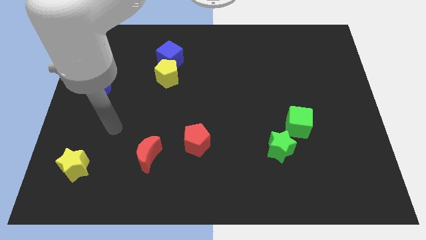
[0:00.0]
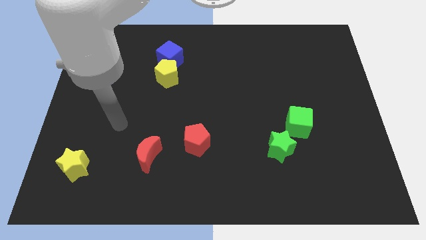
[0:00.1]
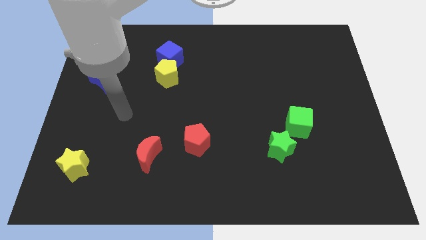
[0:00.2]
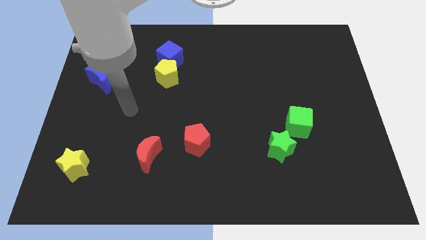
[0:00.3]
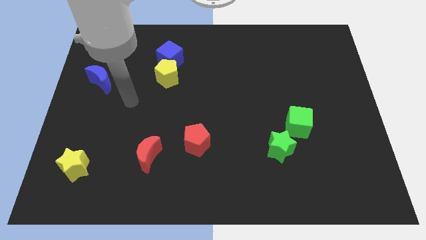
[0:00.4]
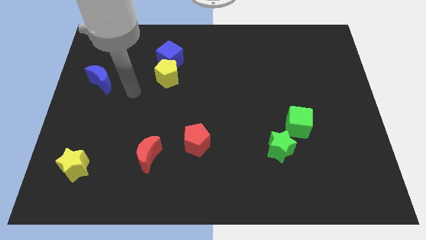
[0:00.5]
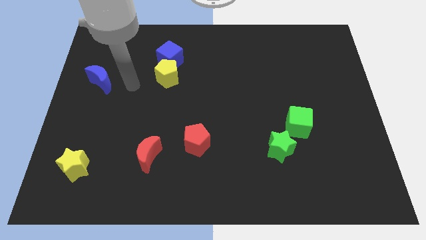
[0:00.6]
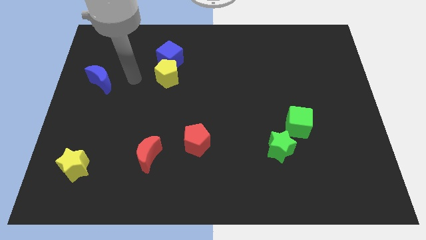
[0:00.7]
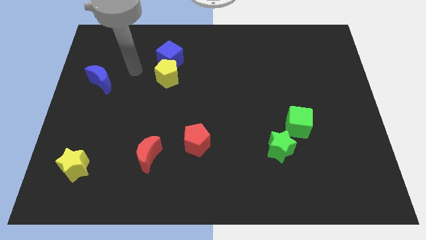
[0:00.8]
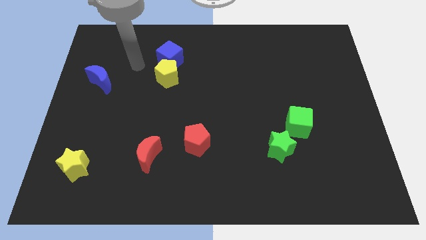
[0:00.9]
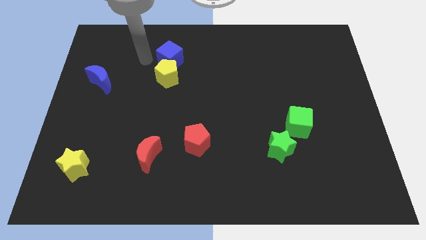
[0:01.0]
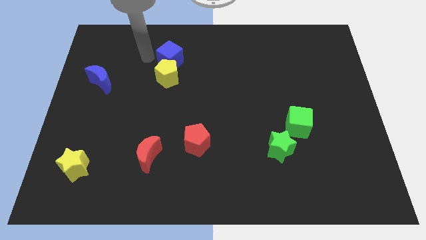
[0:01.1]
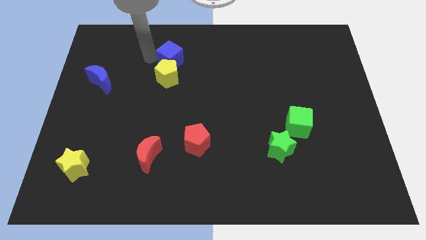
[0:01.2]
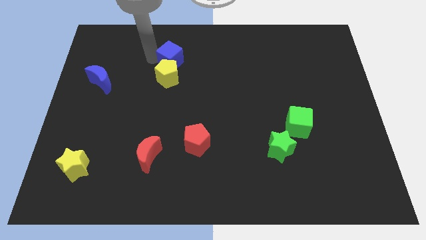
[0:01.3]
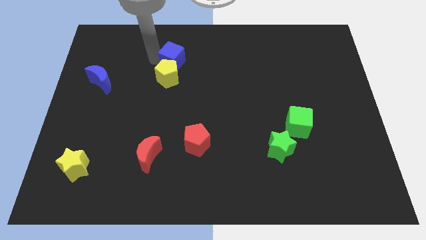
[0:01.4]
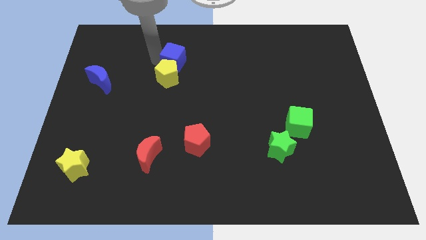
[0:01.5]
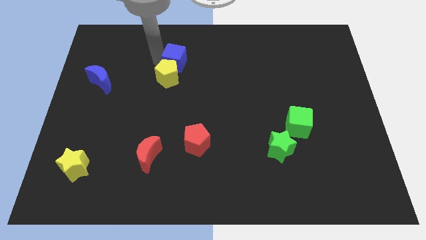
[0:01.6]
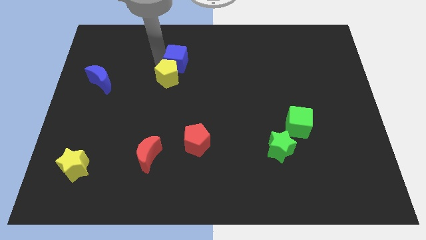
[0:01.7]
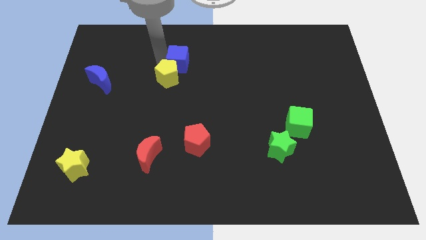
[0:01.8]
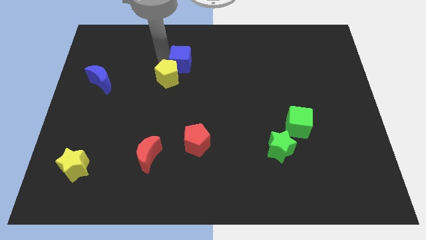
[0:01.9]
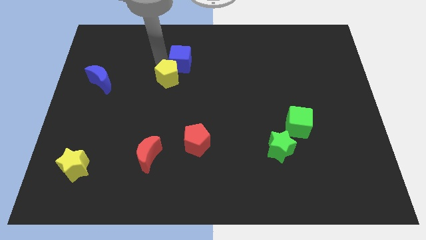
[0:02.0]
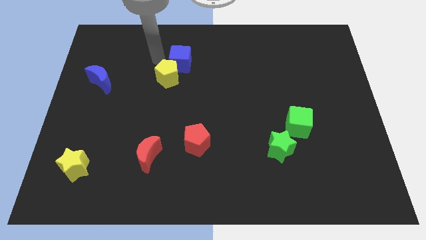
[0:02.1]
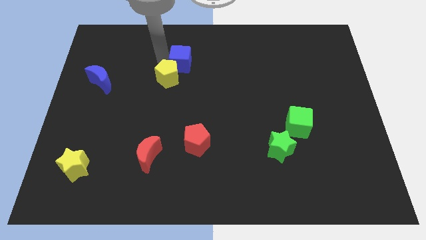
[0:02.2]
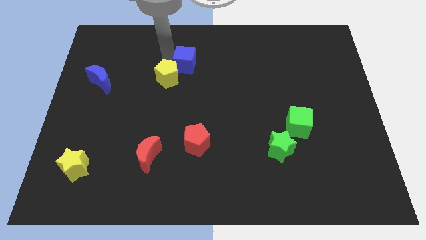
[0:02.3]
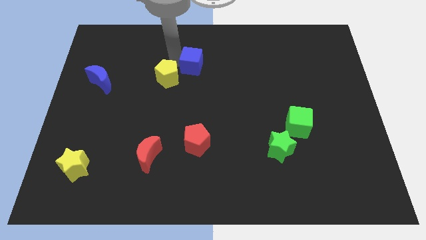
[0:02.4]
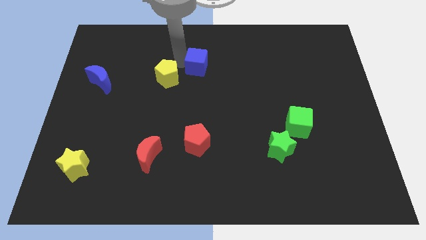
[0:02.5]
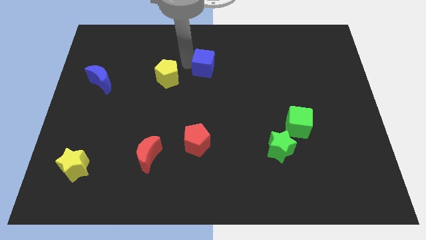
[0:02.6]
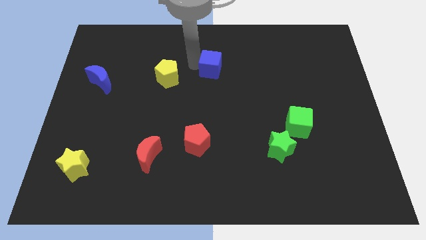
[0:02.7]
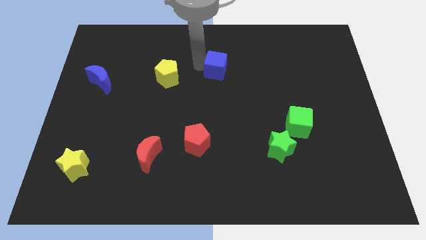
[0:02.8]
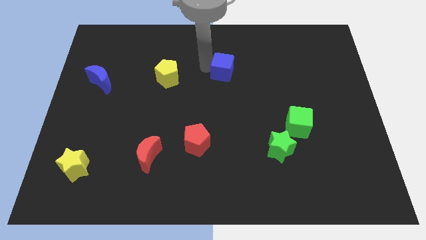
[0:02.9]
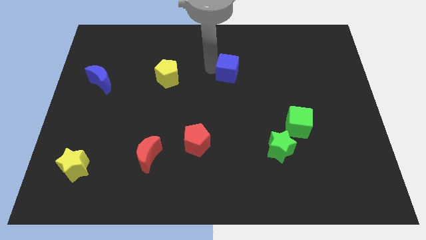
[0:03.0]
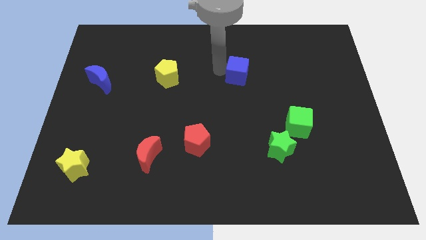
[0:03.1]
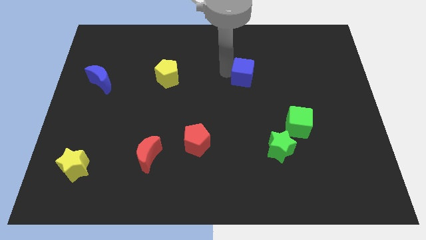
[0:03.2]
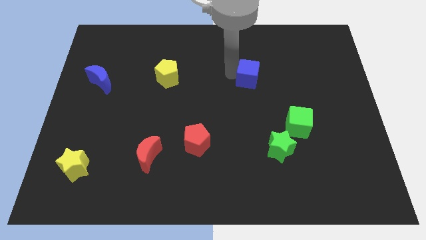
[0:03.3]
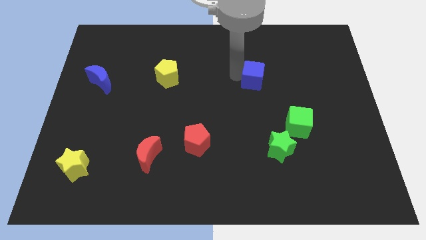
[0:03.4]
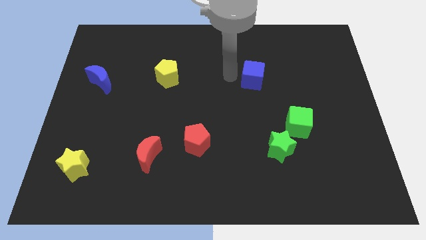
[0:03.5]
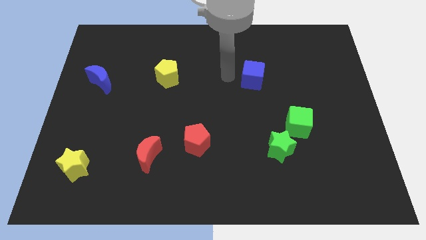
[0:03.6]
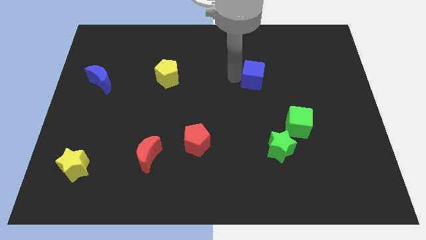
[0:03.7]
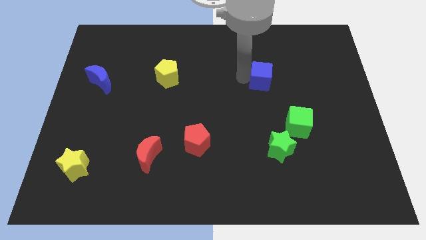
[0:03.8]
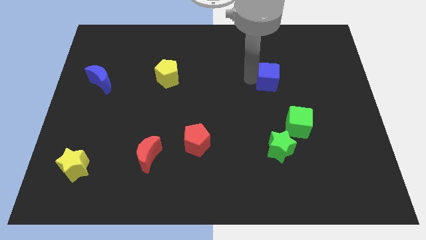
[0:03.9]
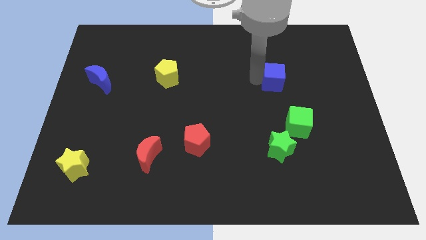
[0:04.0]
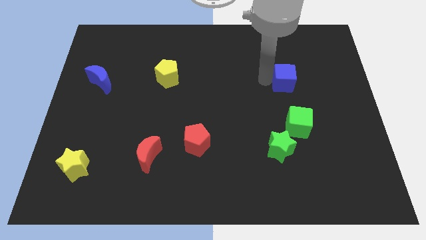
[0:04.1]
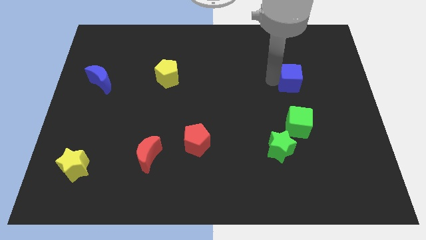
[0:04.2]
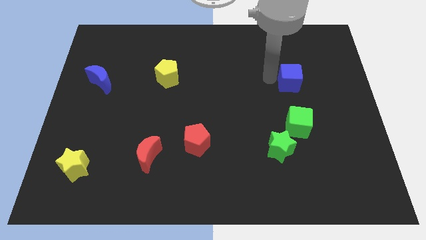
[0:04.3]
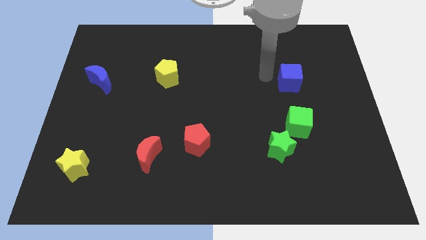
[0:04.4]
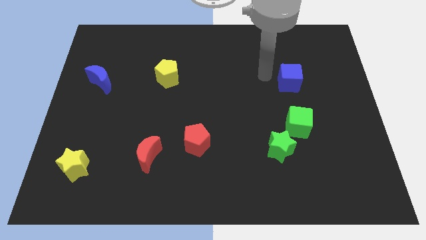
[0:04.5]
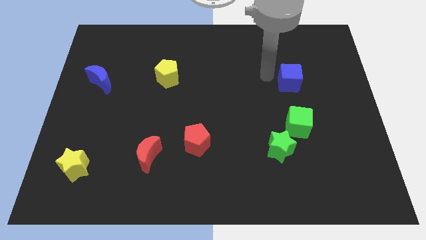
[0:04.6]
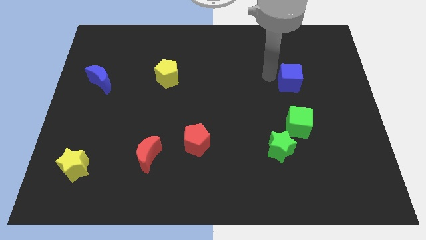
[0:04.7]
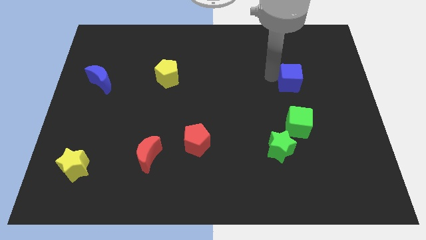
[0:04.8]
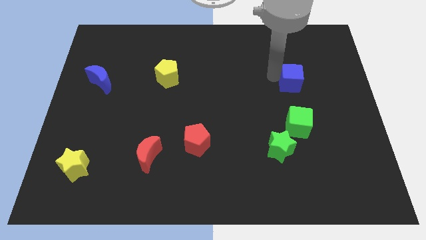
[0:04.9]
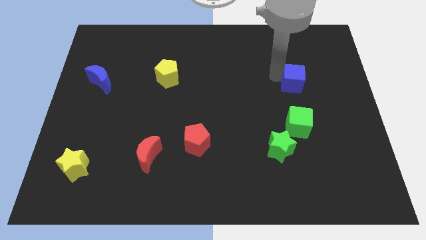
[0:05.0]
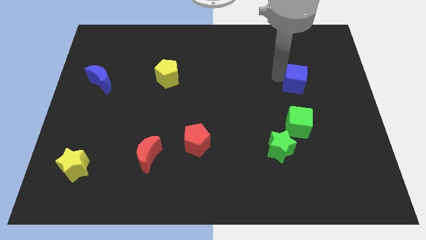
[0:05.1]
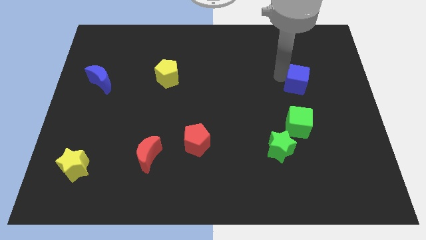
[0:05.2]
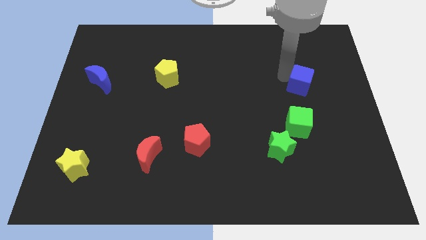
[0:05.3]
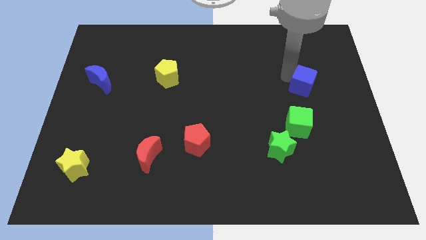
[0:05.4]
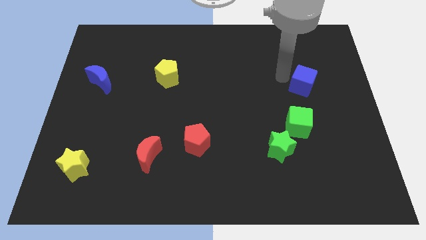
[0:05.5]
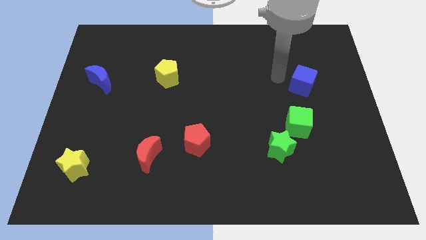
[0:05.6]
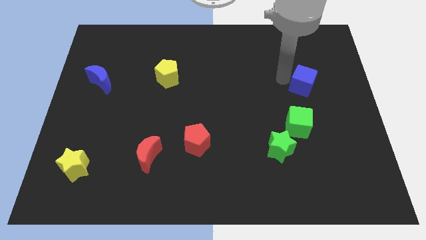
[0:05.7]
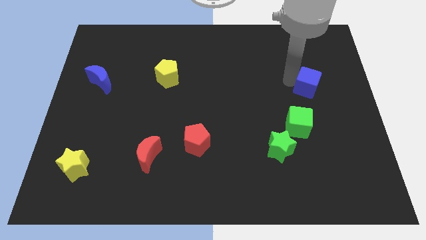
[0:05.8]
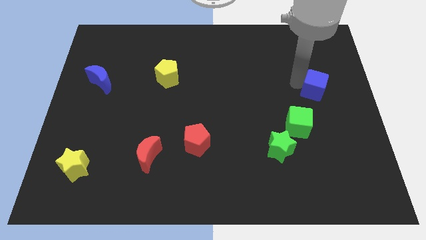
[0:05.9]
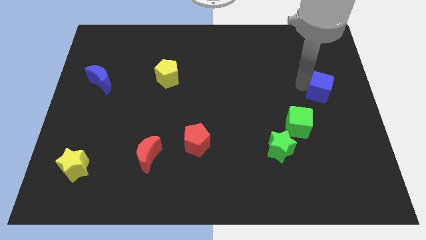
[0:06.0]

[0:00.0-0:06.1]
push the blue cube to the right side of the board

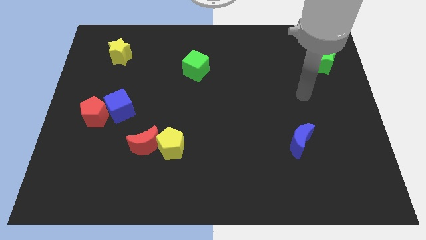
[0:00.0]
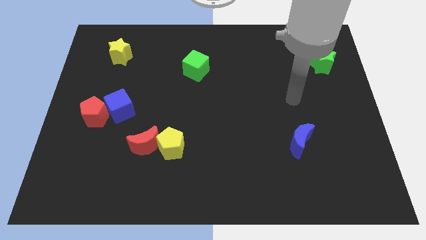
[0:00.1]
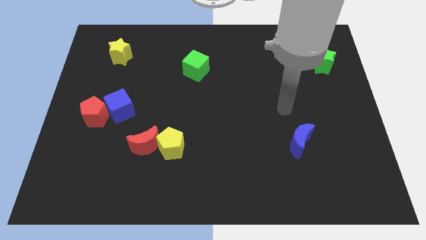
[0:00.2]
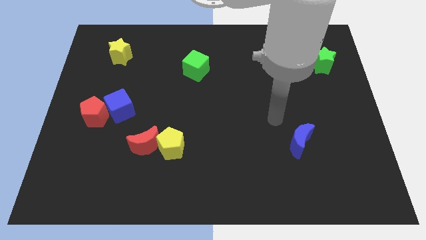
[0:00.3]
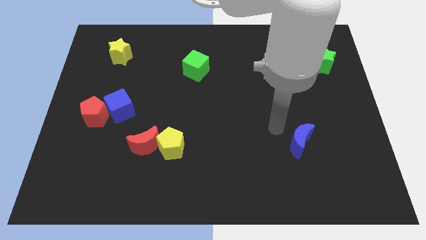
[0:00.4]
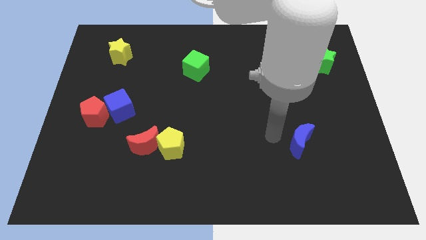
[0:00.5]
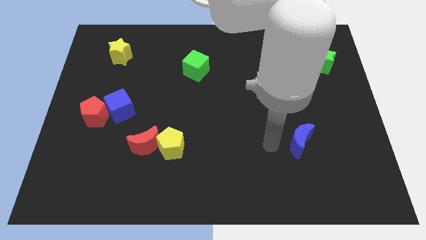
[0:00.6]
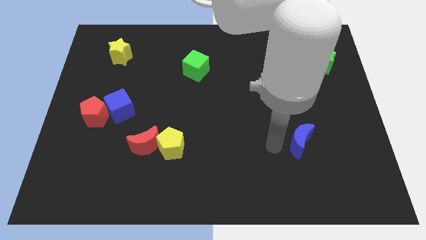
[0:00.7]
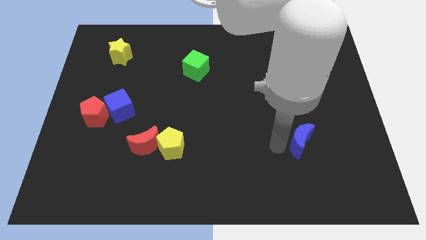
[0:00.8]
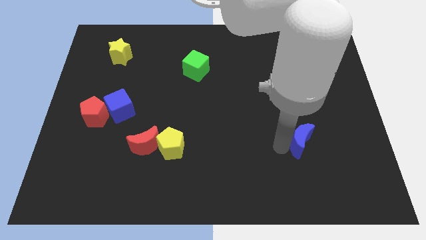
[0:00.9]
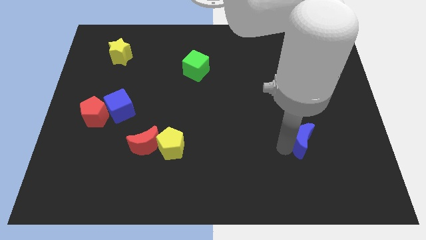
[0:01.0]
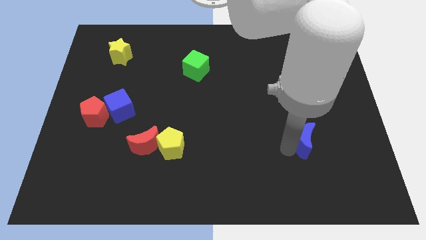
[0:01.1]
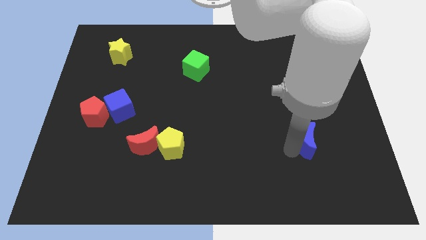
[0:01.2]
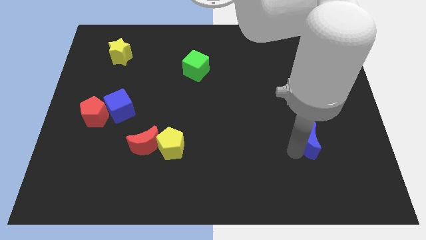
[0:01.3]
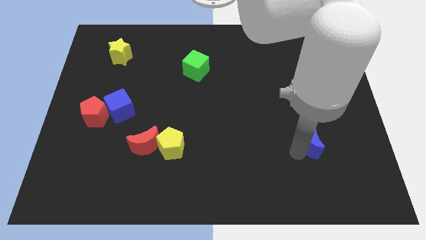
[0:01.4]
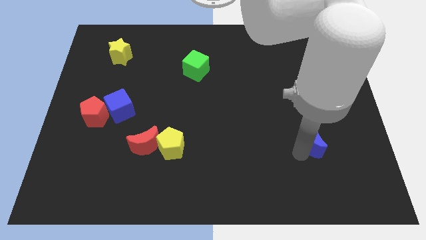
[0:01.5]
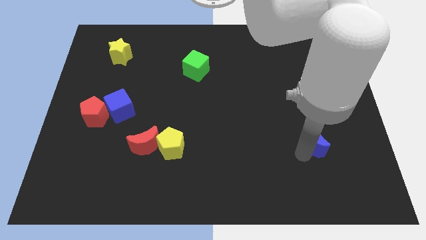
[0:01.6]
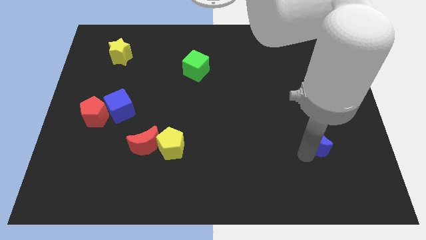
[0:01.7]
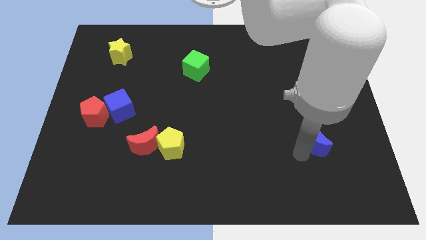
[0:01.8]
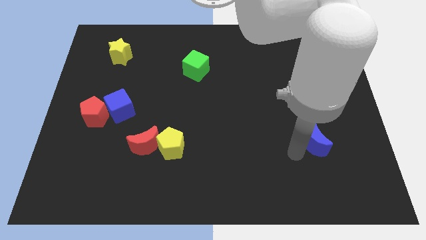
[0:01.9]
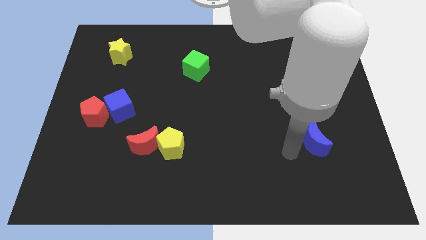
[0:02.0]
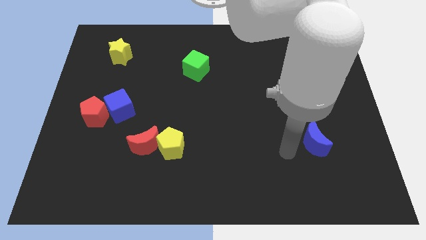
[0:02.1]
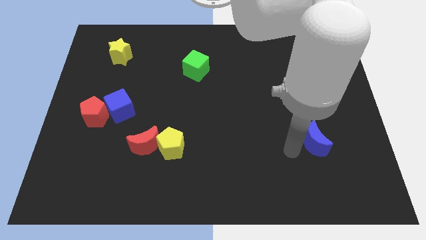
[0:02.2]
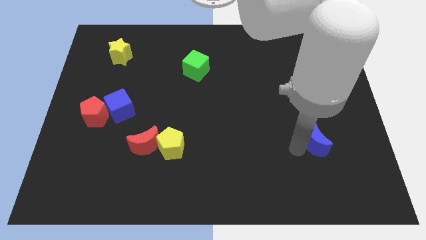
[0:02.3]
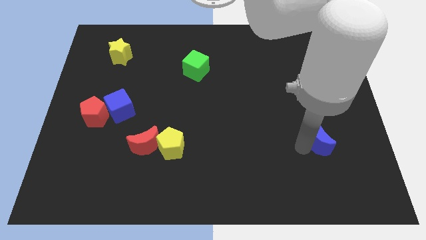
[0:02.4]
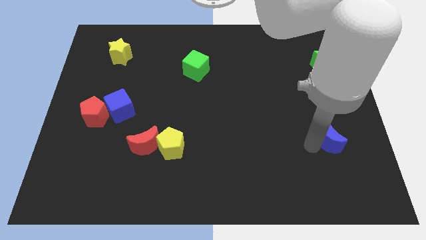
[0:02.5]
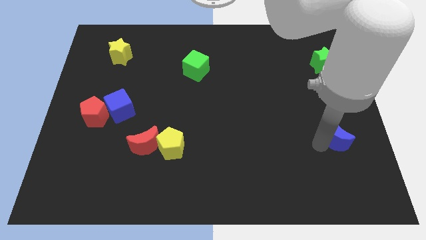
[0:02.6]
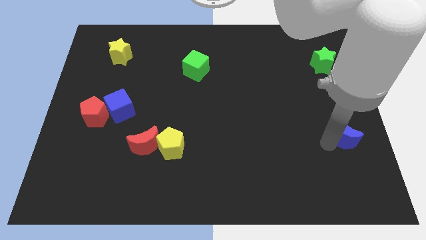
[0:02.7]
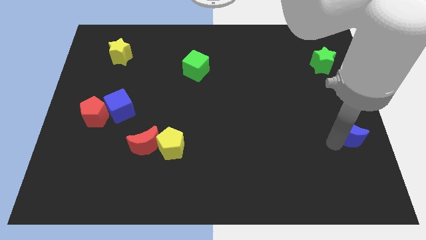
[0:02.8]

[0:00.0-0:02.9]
put the blue moon to the right side
